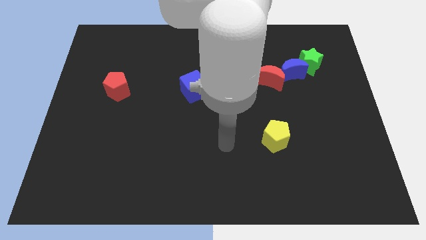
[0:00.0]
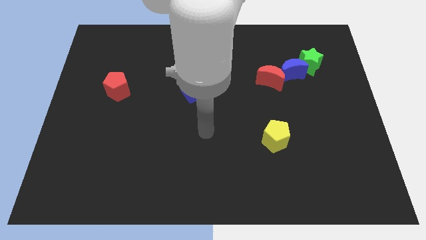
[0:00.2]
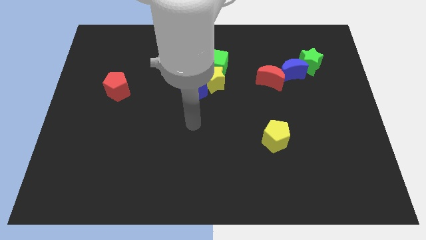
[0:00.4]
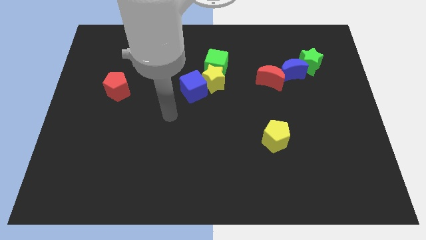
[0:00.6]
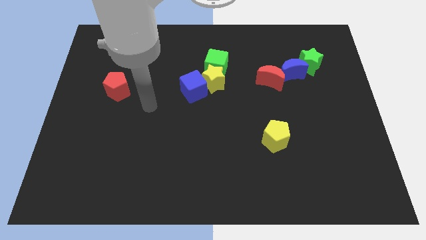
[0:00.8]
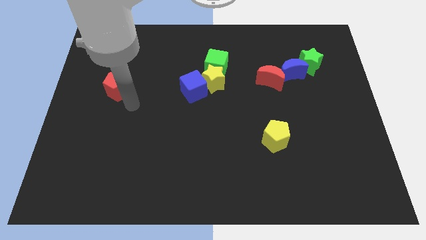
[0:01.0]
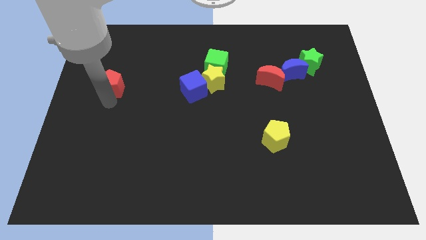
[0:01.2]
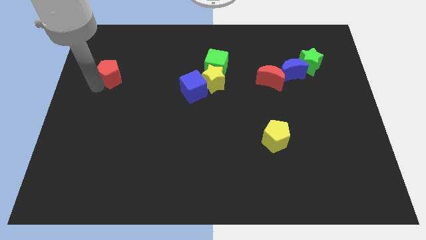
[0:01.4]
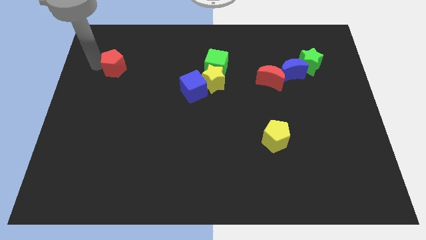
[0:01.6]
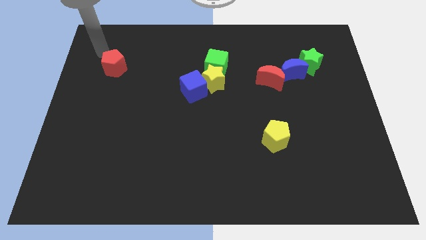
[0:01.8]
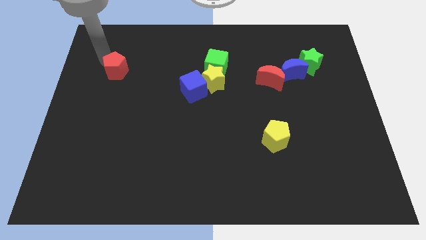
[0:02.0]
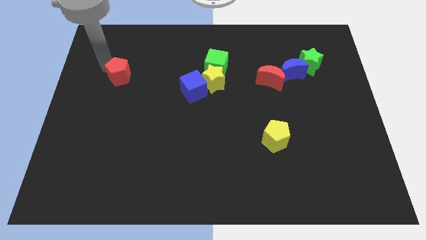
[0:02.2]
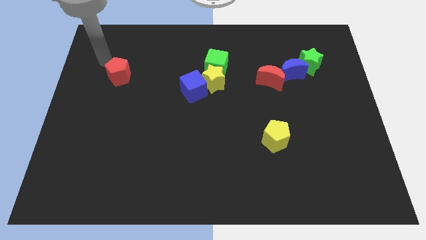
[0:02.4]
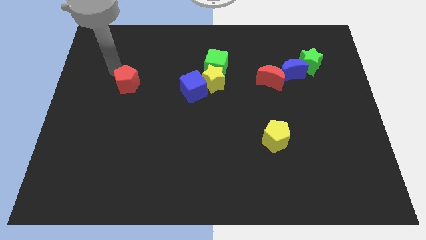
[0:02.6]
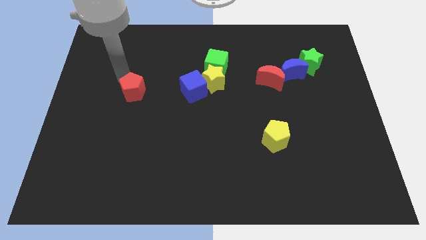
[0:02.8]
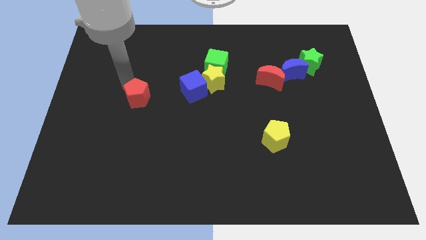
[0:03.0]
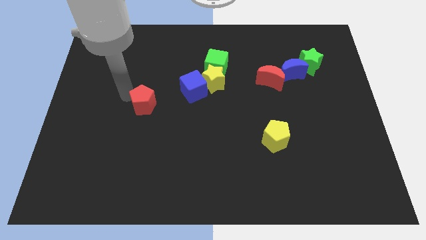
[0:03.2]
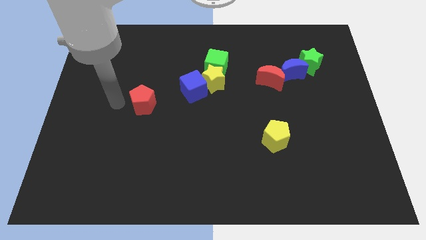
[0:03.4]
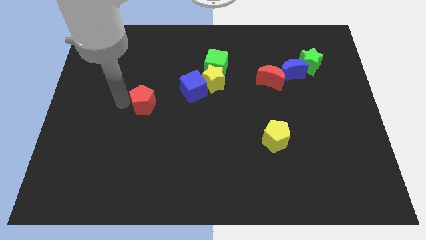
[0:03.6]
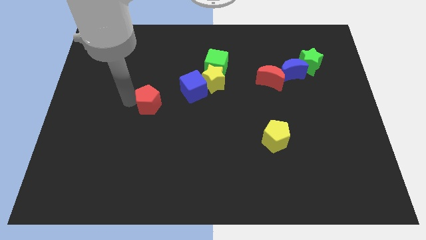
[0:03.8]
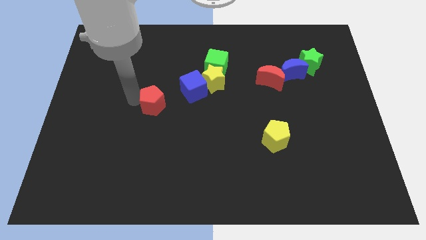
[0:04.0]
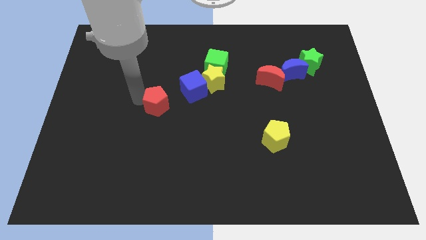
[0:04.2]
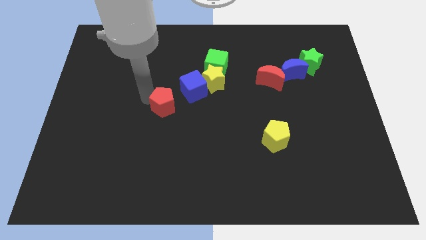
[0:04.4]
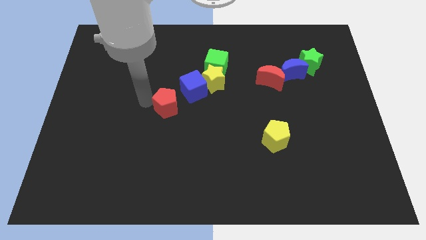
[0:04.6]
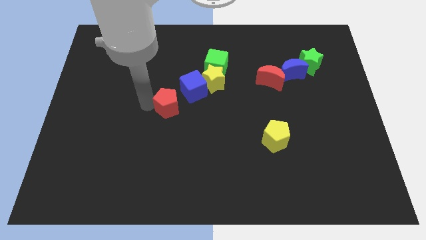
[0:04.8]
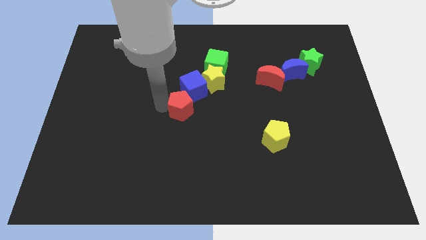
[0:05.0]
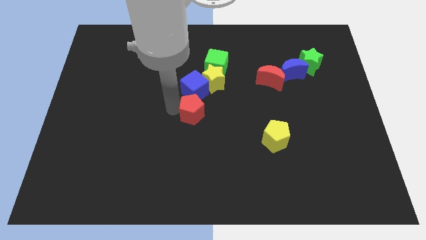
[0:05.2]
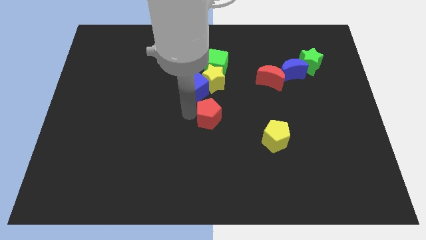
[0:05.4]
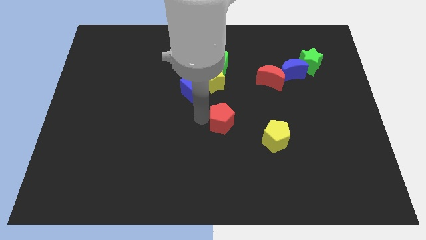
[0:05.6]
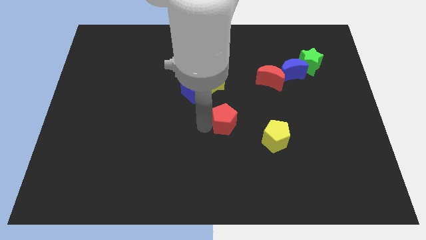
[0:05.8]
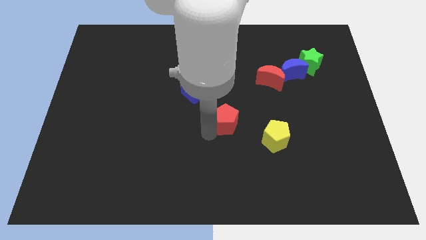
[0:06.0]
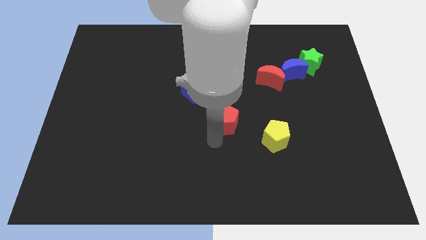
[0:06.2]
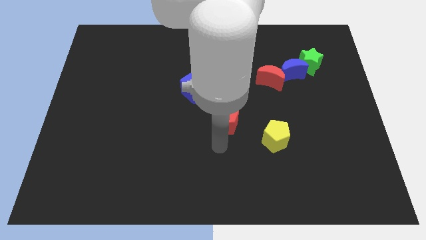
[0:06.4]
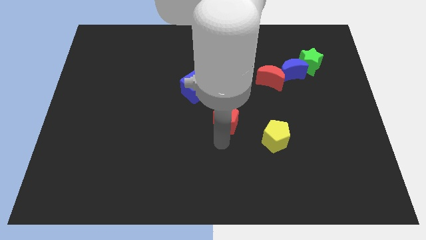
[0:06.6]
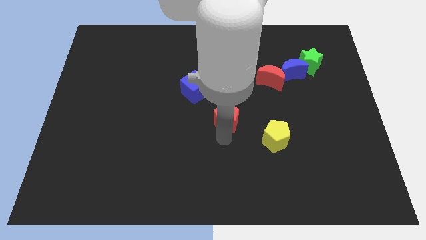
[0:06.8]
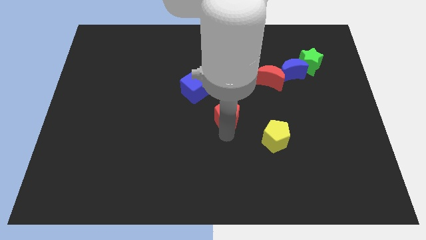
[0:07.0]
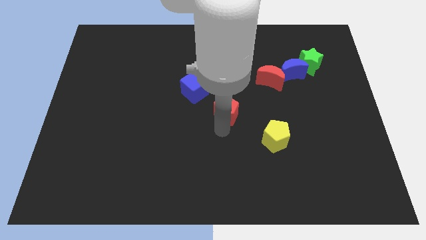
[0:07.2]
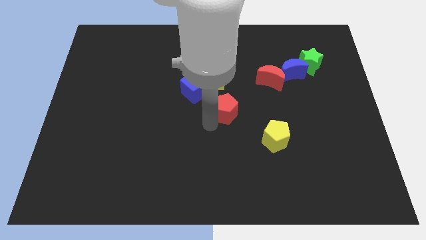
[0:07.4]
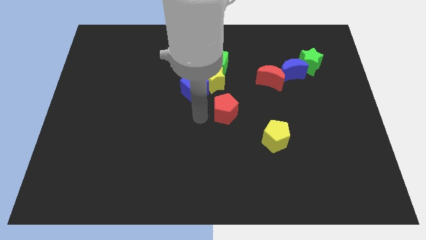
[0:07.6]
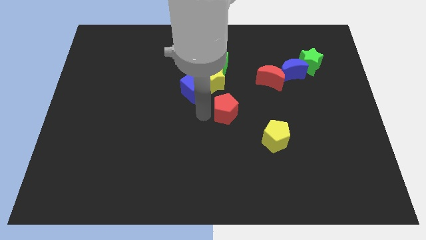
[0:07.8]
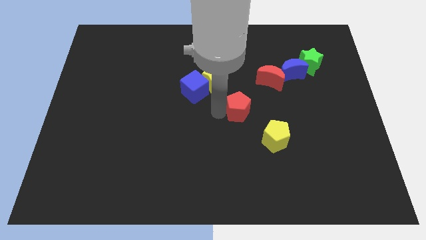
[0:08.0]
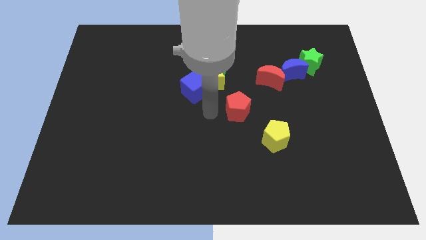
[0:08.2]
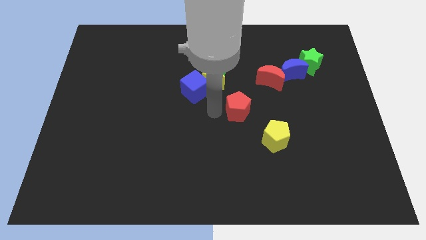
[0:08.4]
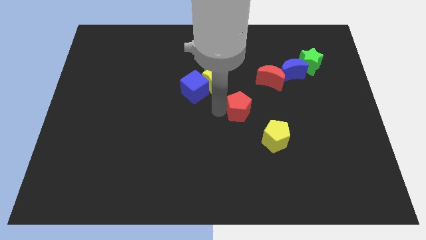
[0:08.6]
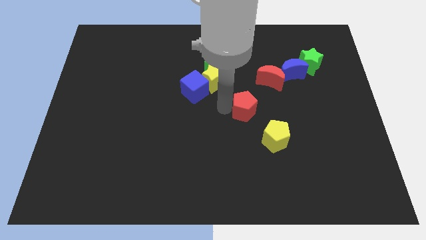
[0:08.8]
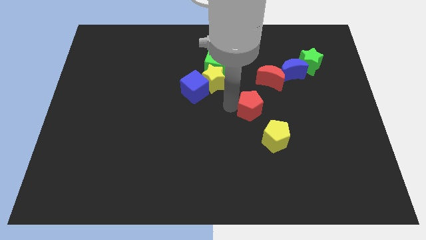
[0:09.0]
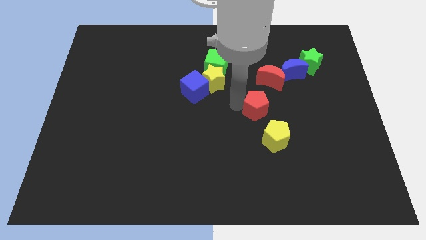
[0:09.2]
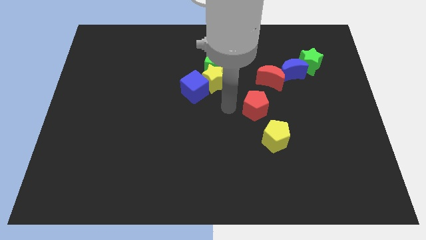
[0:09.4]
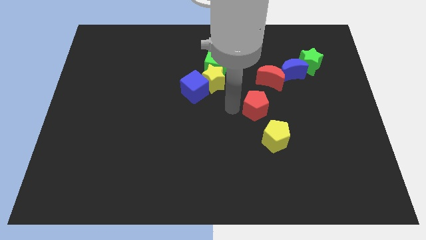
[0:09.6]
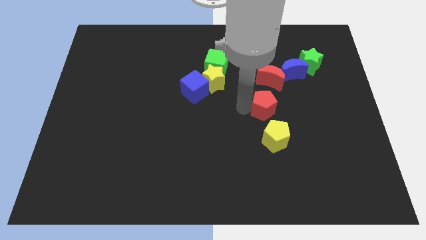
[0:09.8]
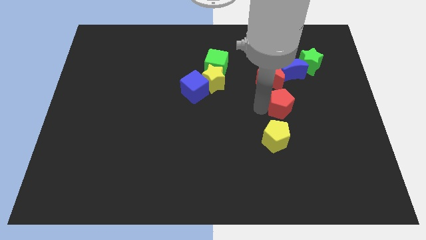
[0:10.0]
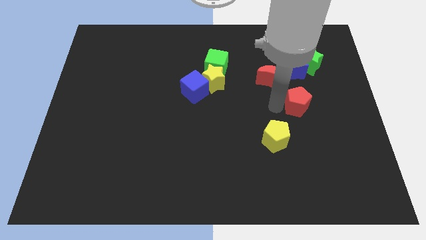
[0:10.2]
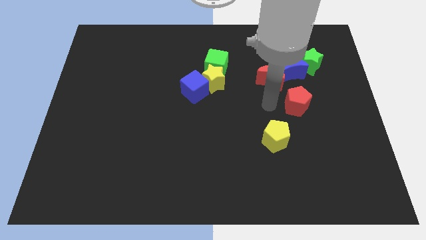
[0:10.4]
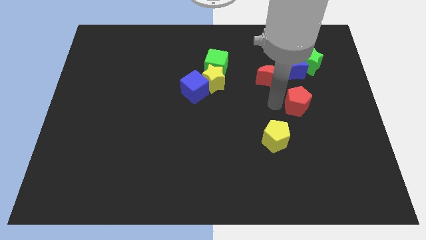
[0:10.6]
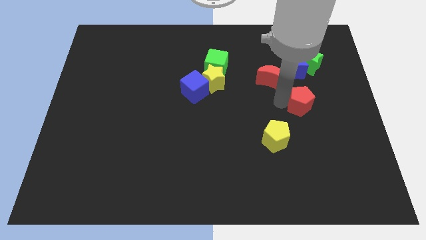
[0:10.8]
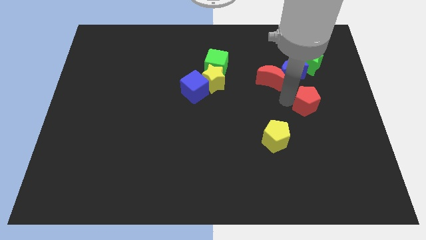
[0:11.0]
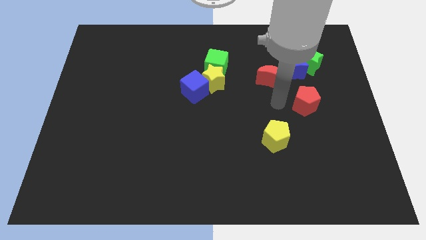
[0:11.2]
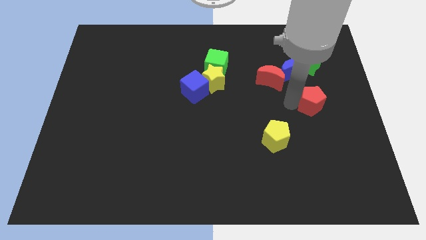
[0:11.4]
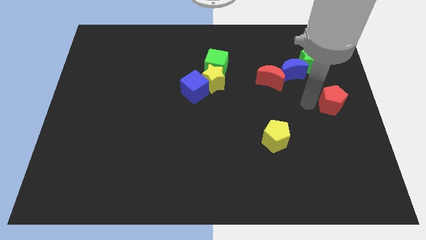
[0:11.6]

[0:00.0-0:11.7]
move the red pentagon to the center right
